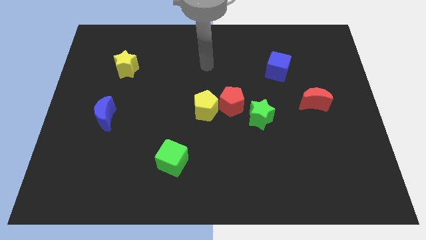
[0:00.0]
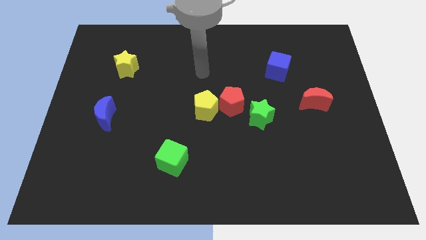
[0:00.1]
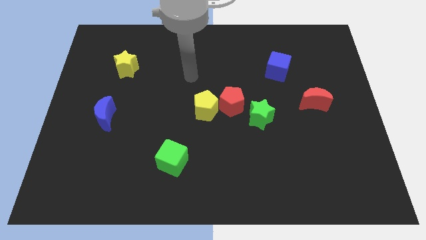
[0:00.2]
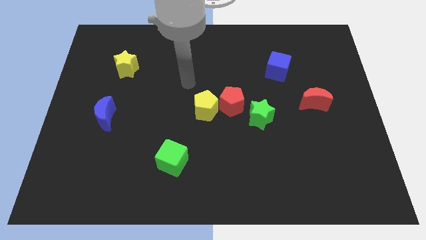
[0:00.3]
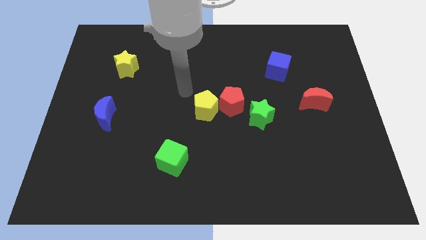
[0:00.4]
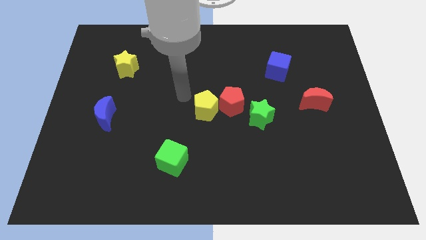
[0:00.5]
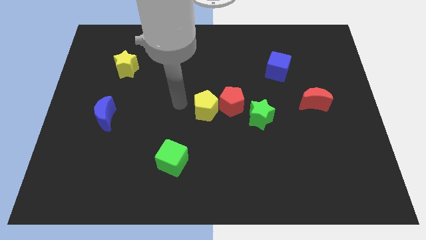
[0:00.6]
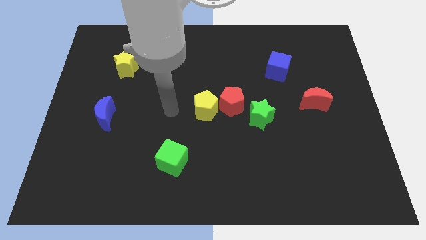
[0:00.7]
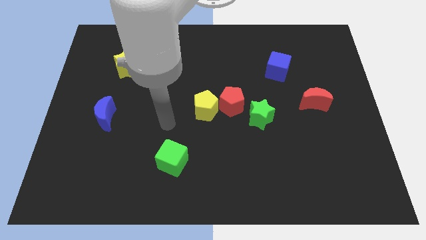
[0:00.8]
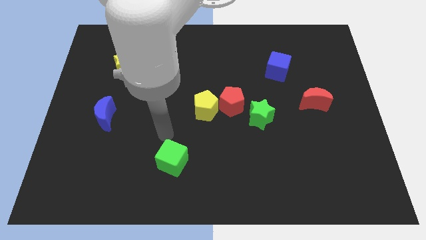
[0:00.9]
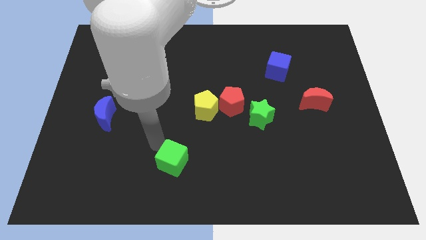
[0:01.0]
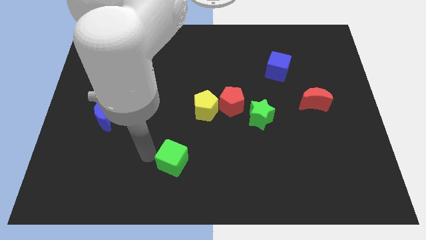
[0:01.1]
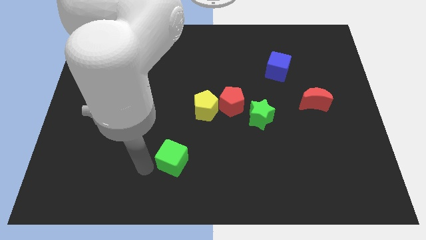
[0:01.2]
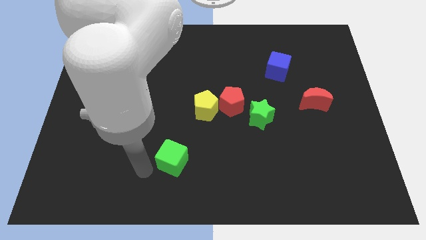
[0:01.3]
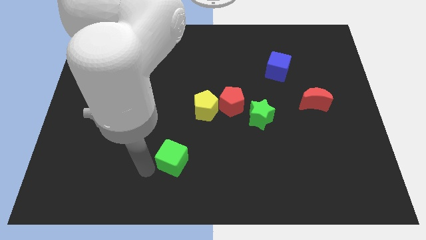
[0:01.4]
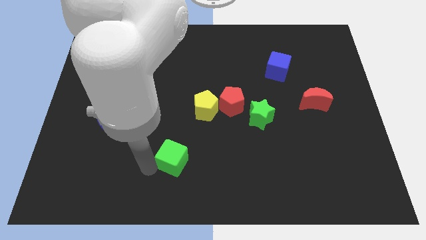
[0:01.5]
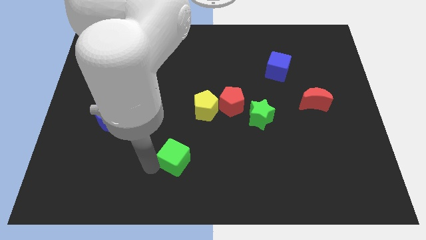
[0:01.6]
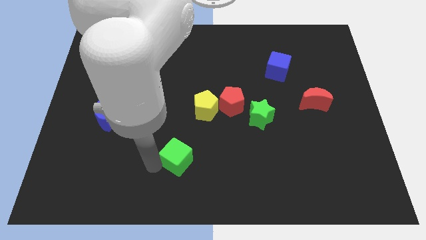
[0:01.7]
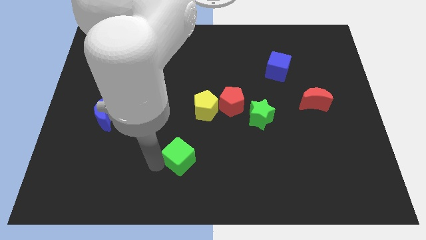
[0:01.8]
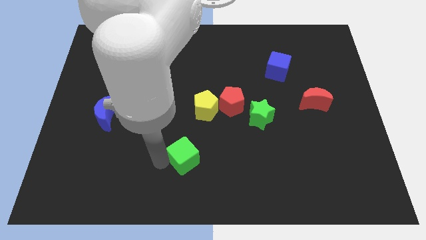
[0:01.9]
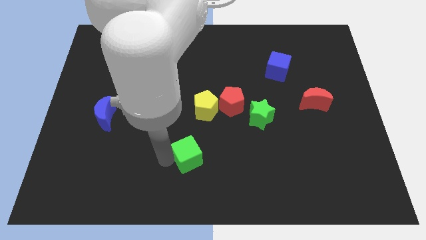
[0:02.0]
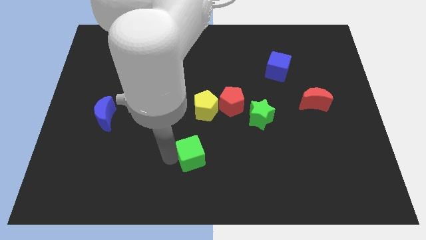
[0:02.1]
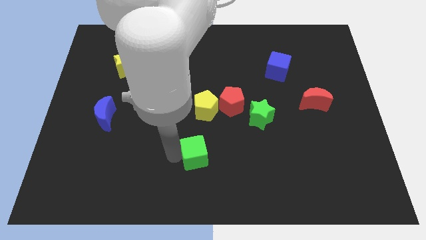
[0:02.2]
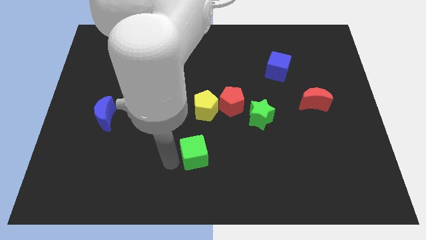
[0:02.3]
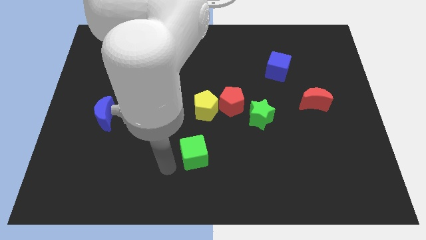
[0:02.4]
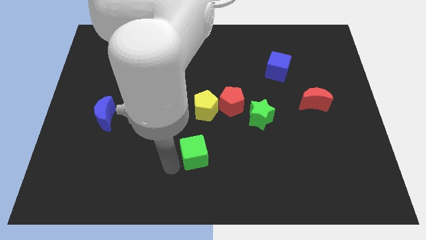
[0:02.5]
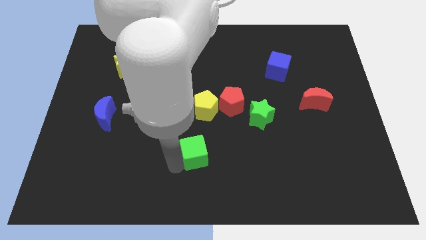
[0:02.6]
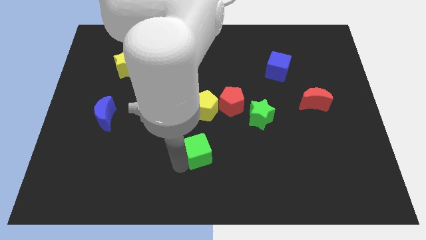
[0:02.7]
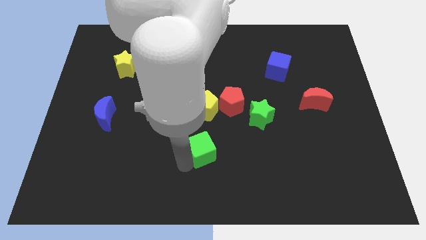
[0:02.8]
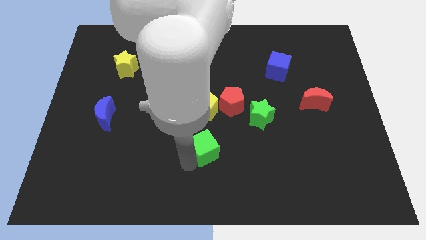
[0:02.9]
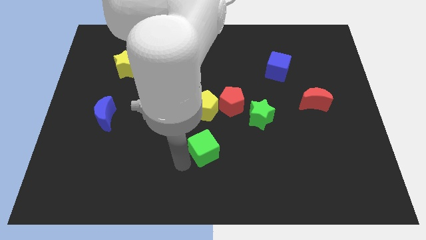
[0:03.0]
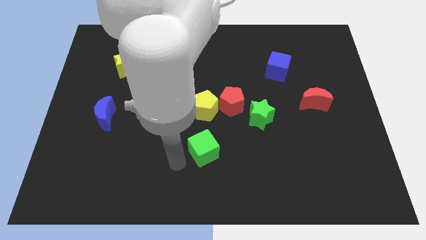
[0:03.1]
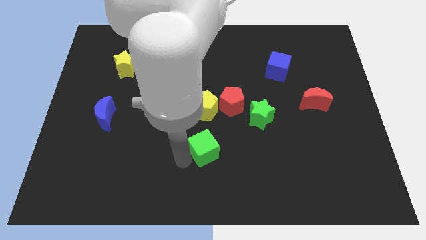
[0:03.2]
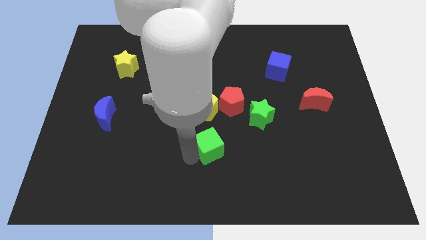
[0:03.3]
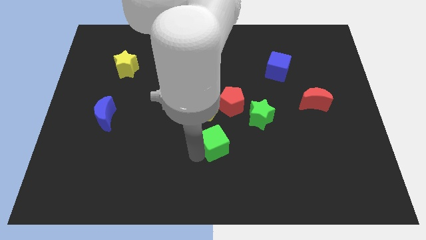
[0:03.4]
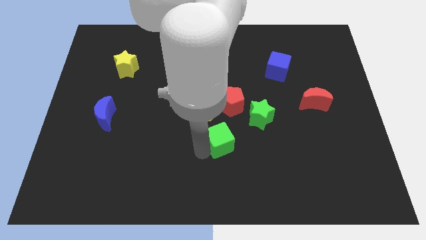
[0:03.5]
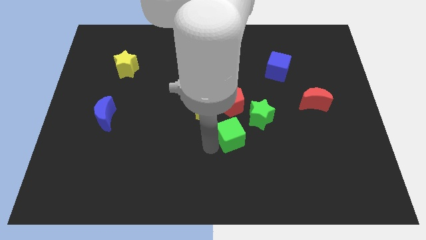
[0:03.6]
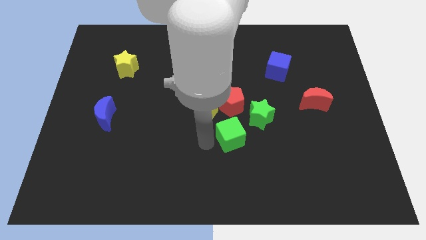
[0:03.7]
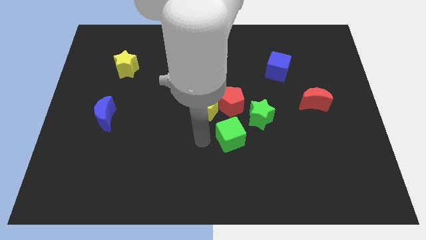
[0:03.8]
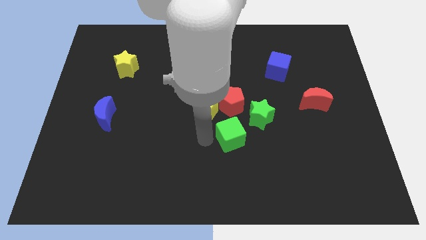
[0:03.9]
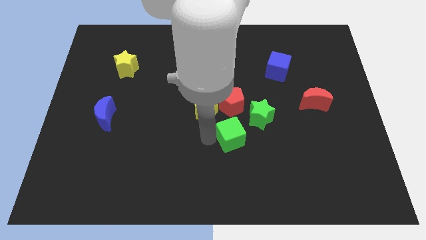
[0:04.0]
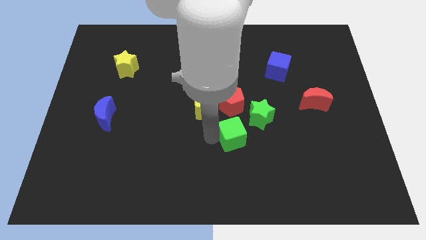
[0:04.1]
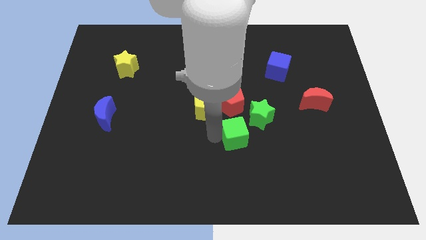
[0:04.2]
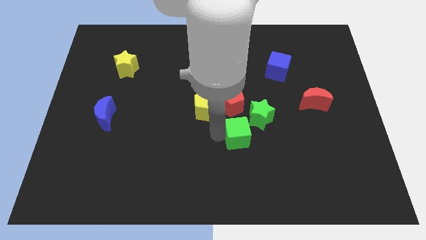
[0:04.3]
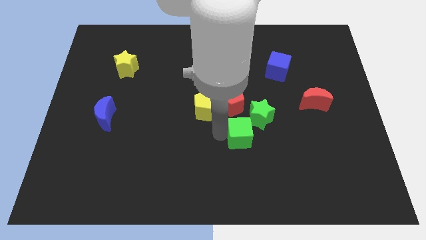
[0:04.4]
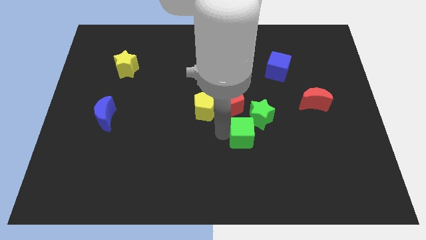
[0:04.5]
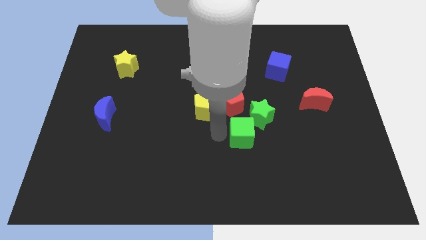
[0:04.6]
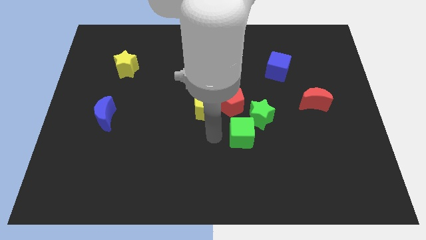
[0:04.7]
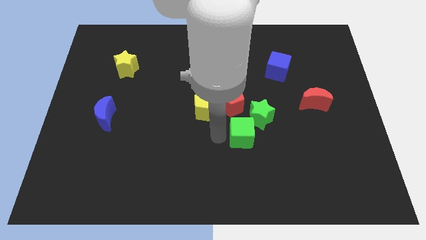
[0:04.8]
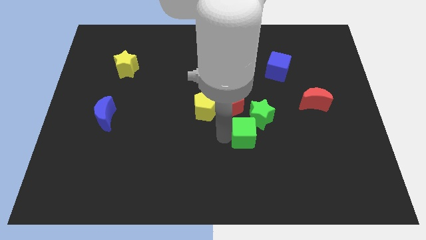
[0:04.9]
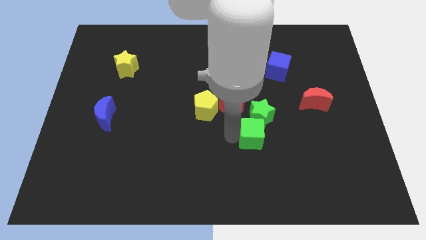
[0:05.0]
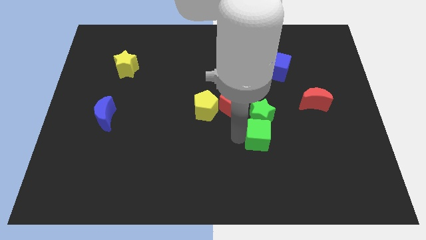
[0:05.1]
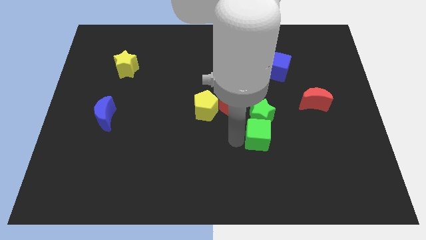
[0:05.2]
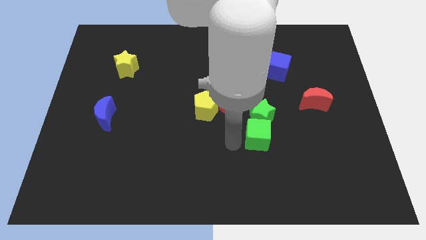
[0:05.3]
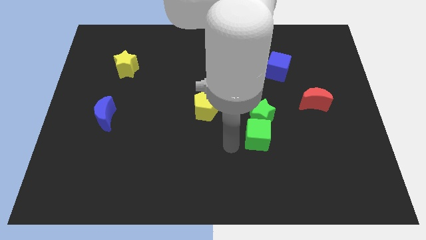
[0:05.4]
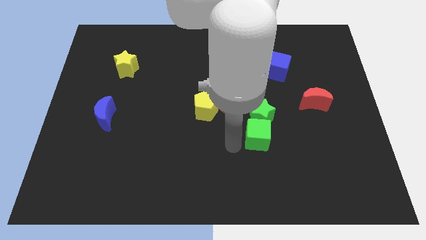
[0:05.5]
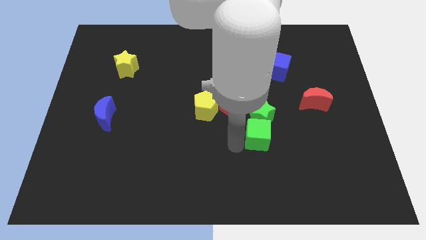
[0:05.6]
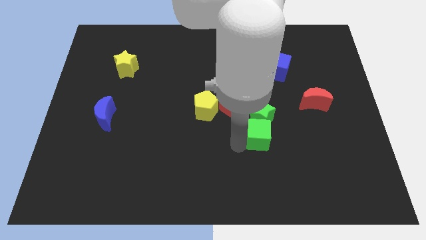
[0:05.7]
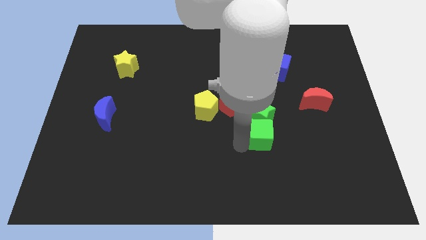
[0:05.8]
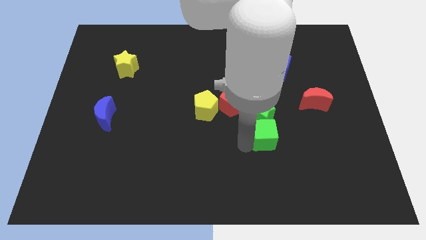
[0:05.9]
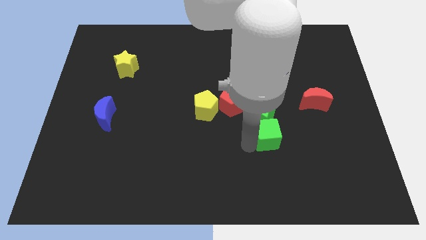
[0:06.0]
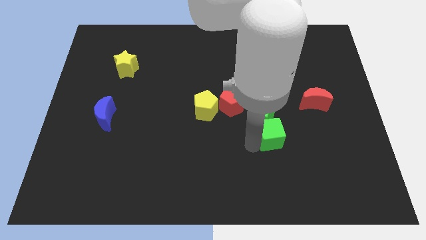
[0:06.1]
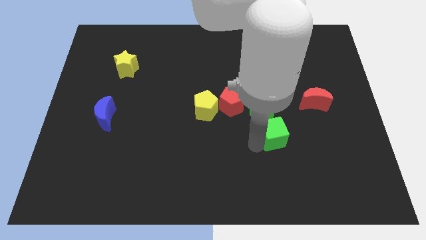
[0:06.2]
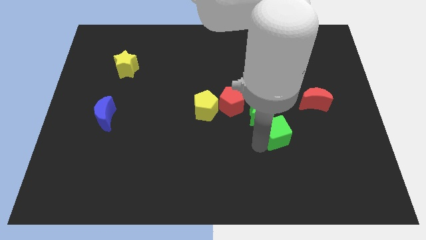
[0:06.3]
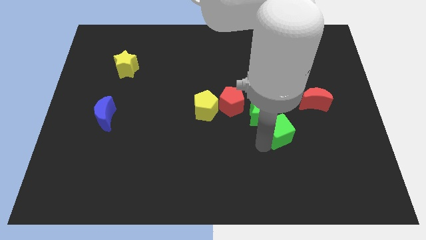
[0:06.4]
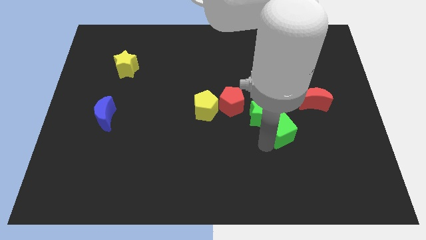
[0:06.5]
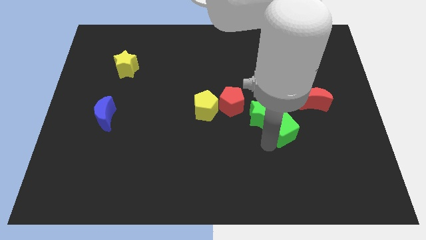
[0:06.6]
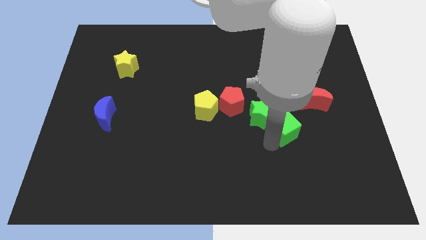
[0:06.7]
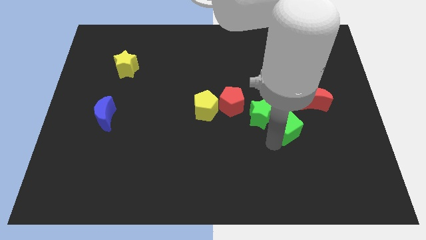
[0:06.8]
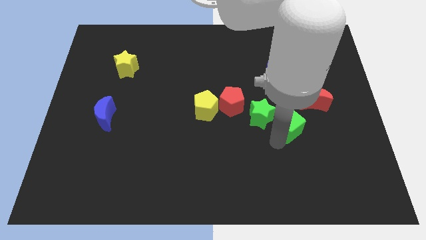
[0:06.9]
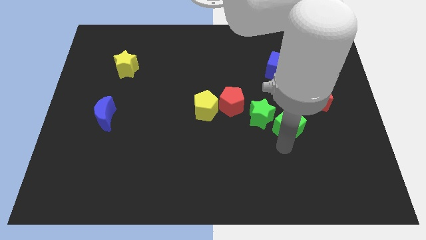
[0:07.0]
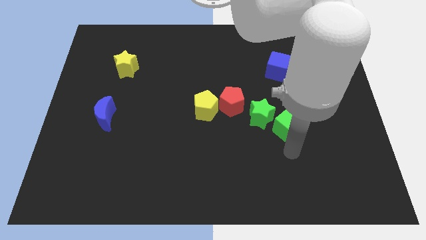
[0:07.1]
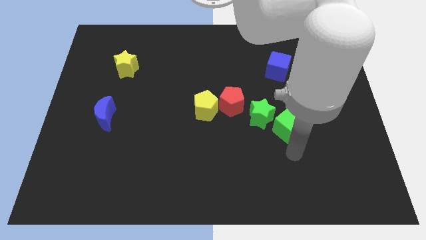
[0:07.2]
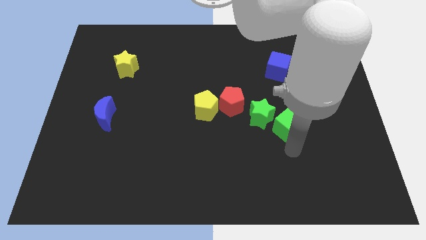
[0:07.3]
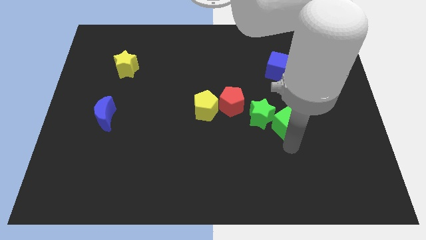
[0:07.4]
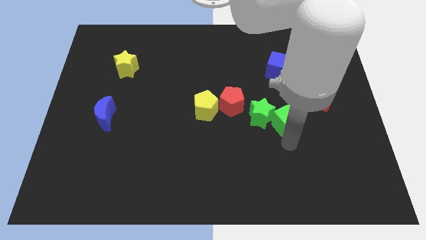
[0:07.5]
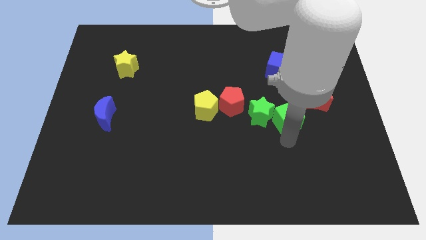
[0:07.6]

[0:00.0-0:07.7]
slide the green cube to the bottom of the blue cube
